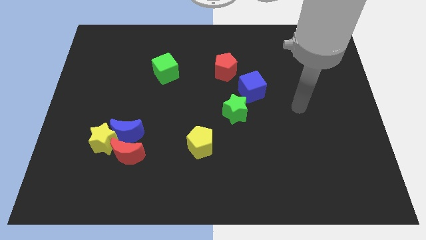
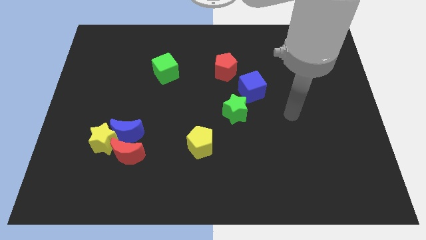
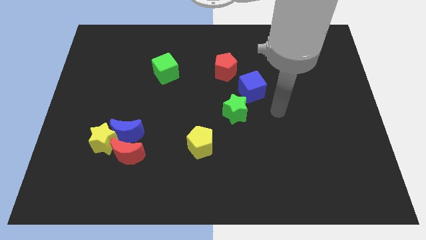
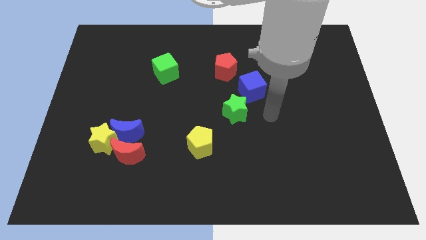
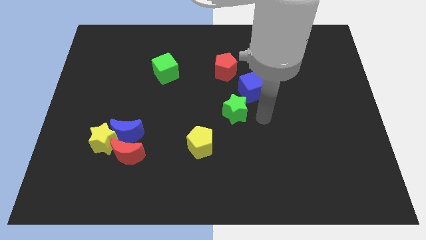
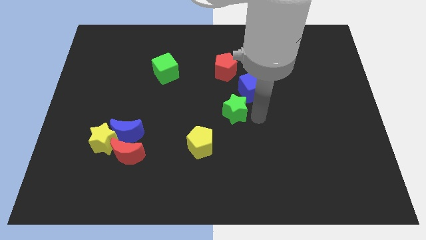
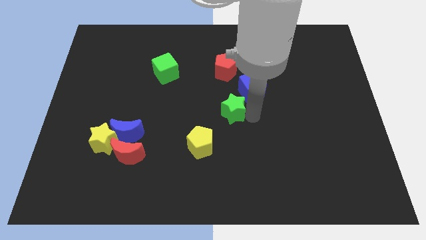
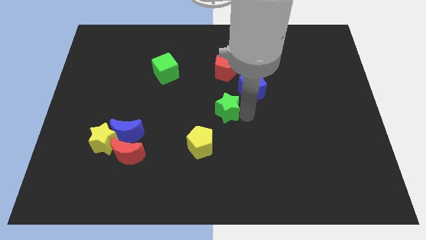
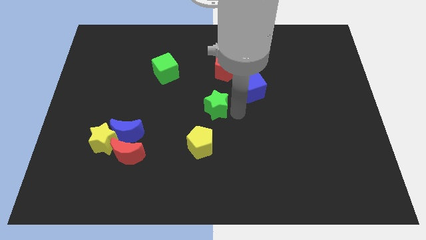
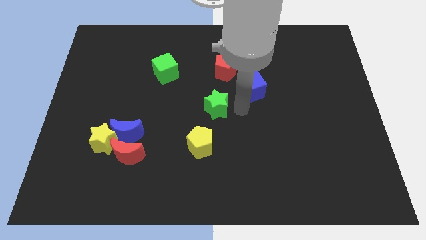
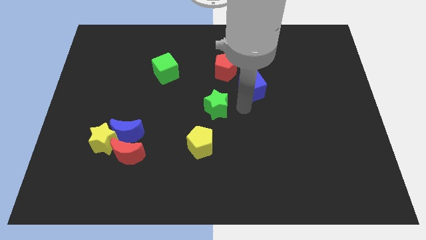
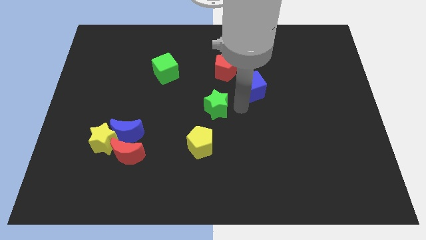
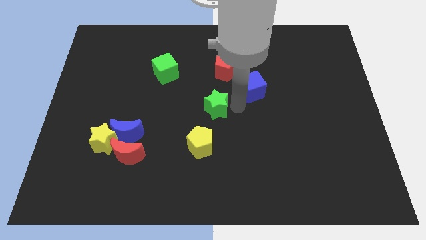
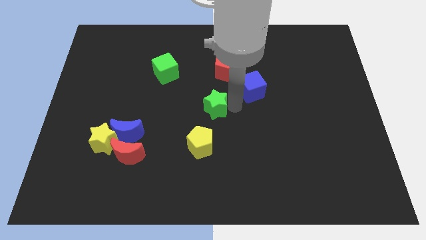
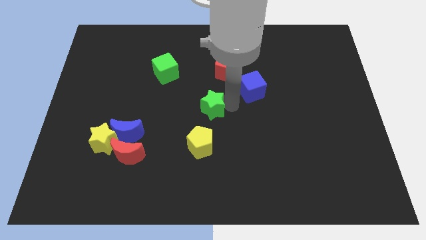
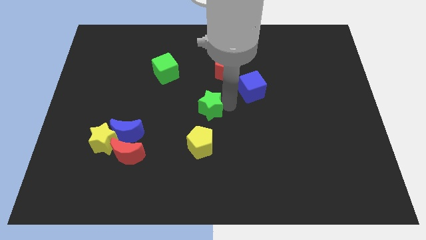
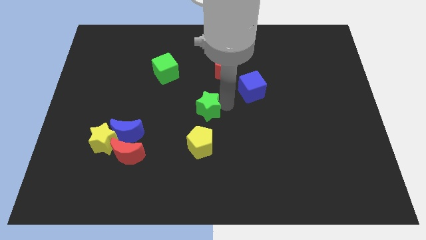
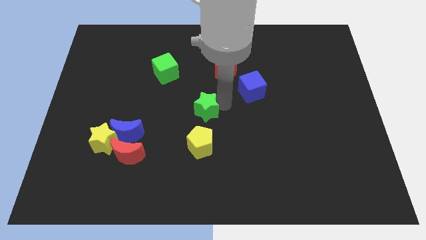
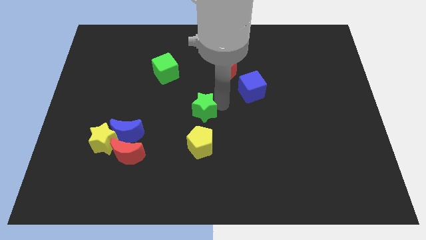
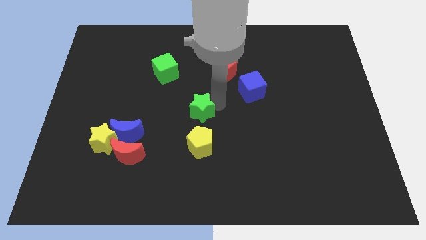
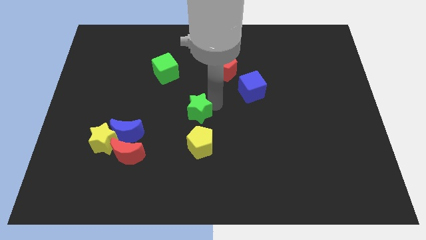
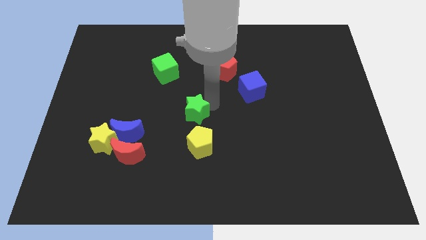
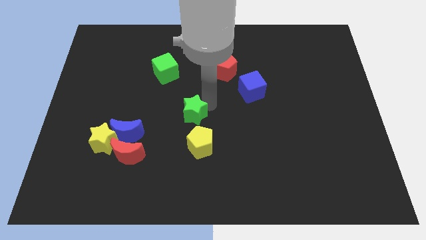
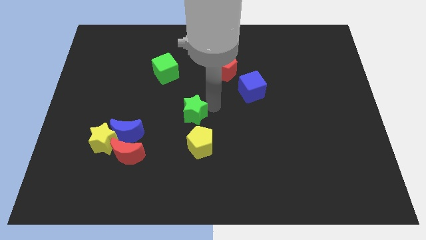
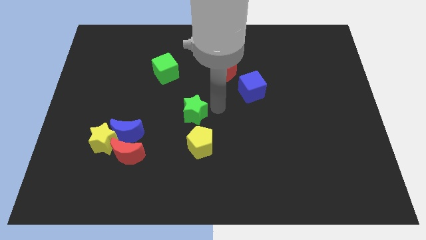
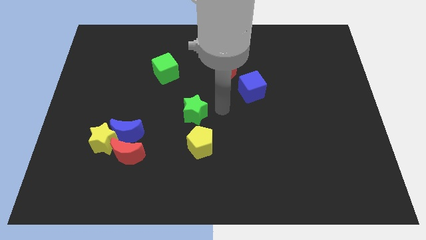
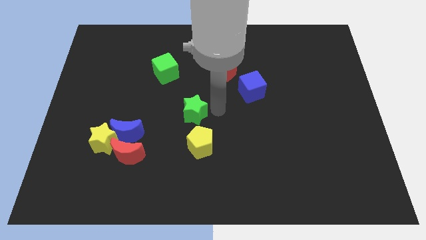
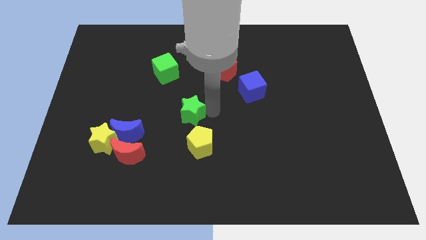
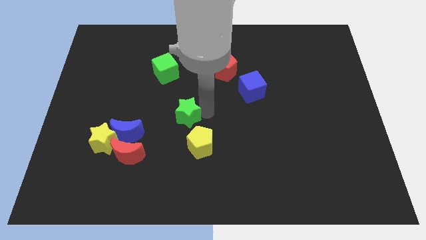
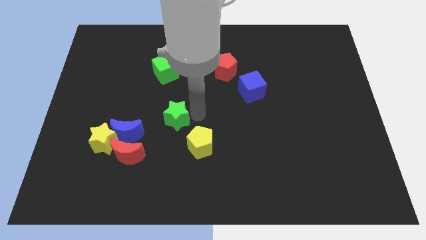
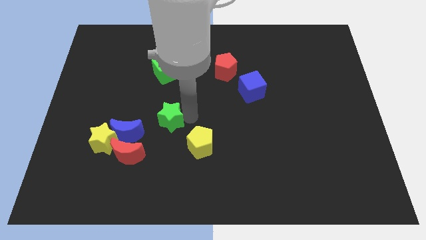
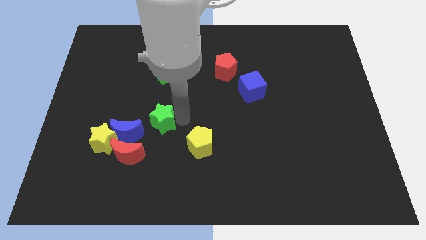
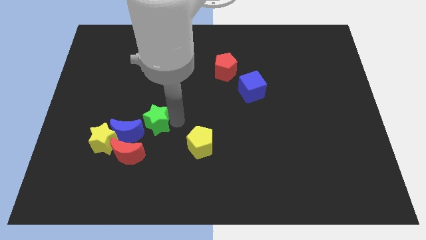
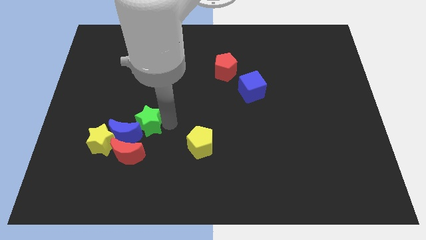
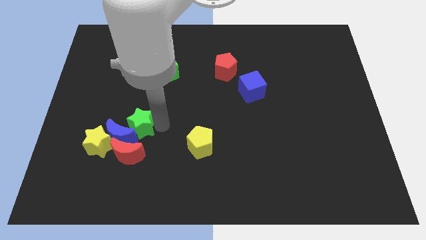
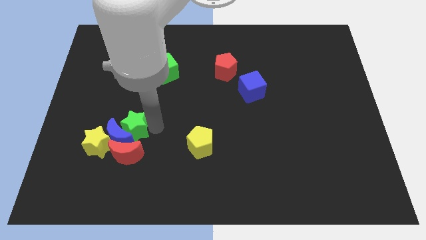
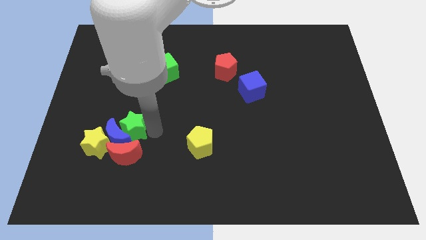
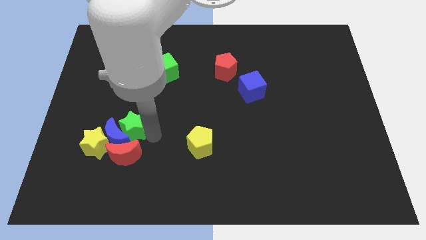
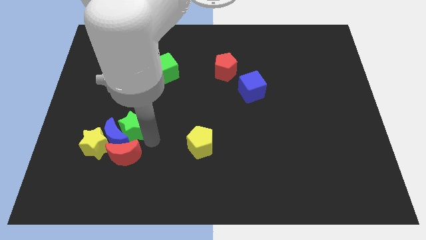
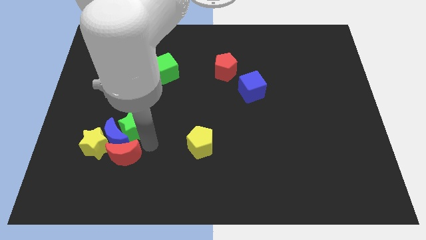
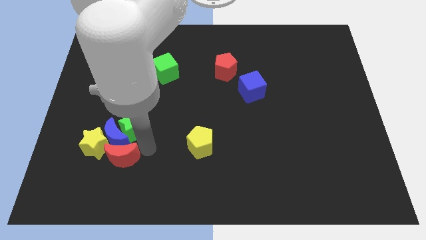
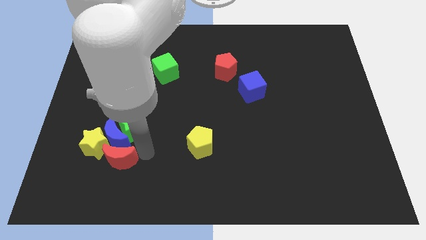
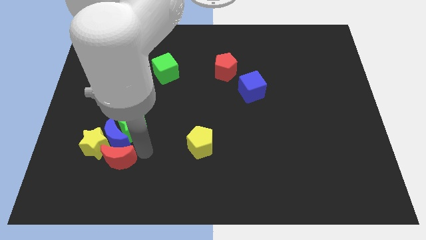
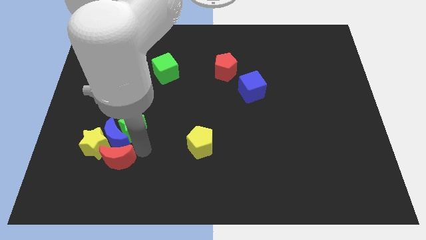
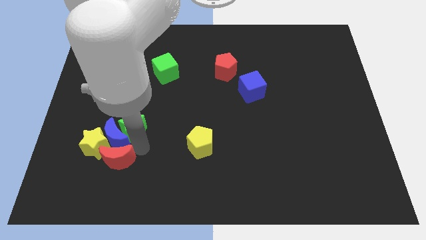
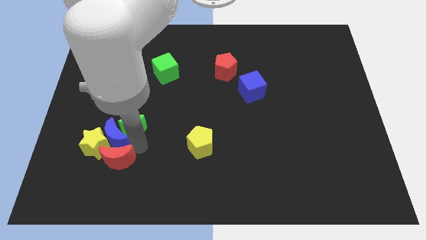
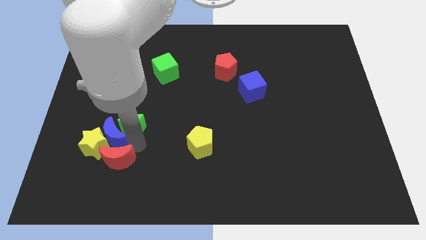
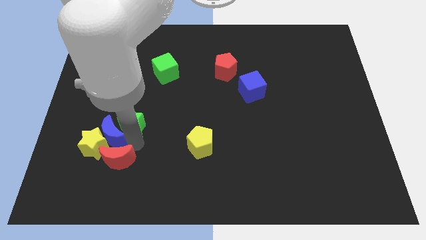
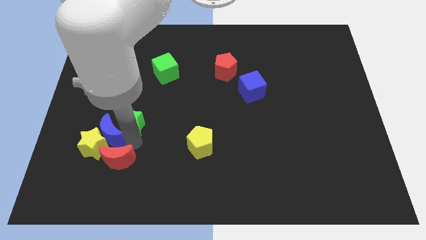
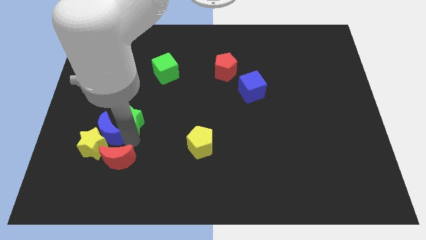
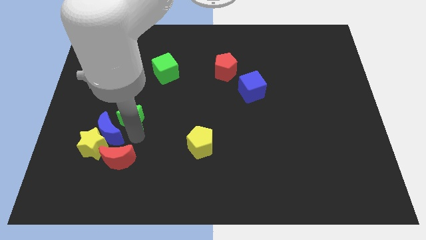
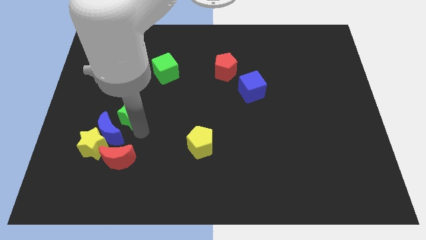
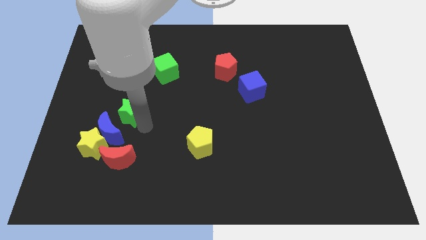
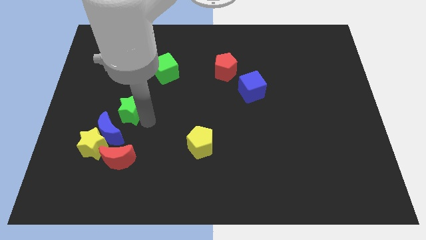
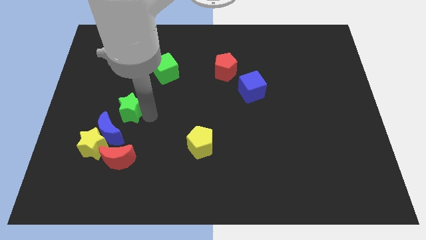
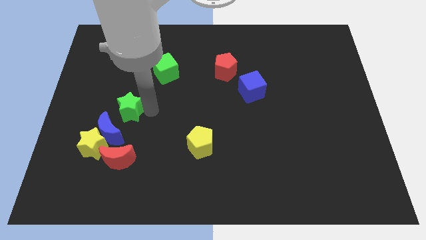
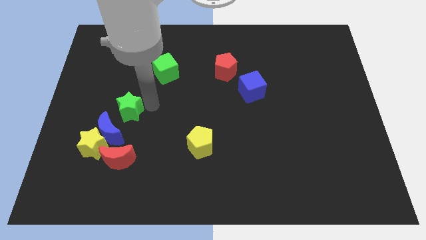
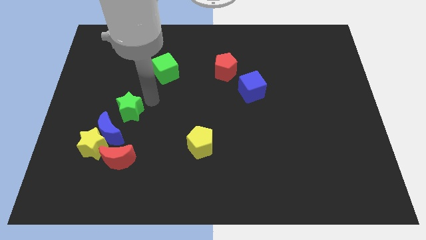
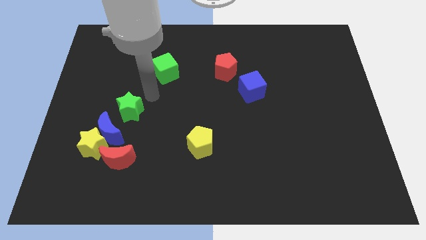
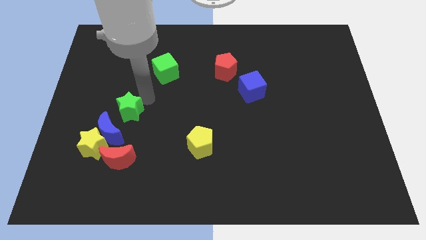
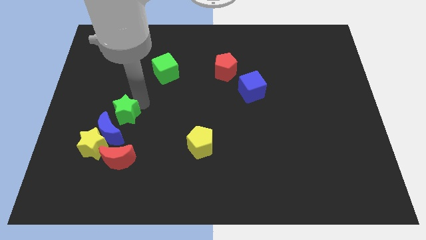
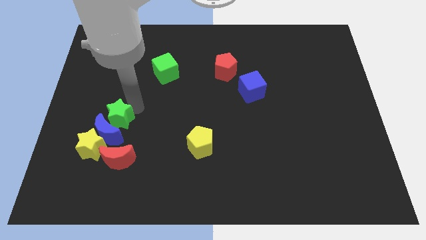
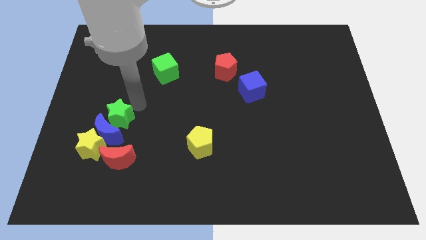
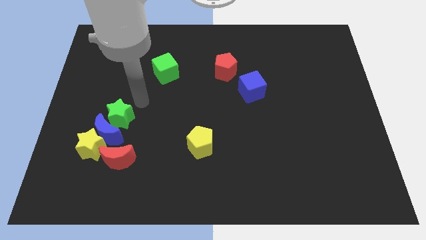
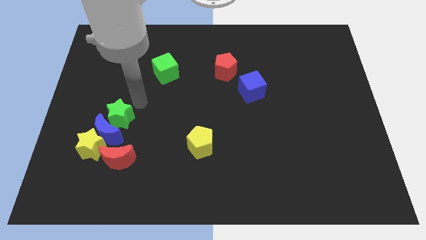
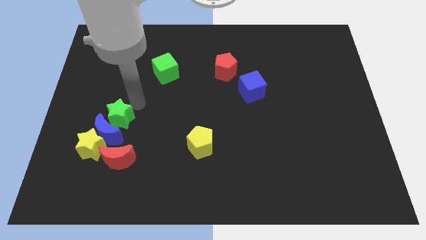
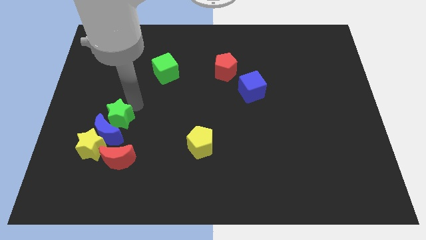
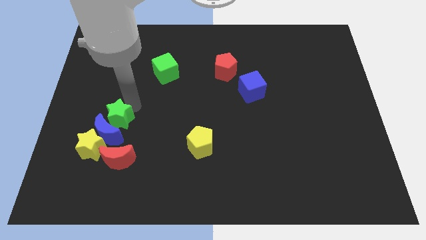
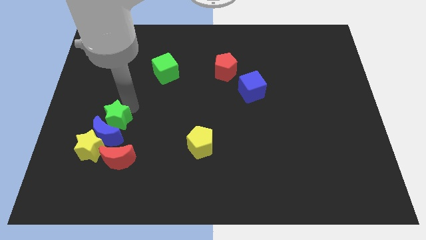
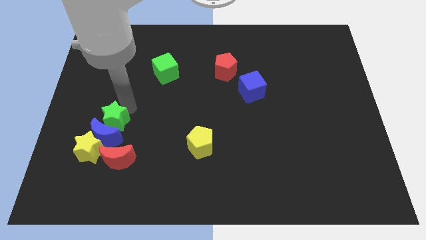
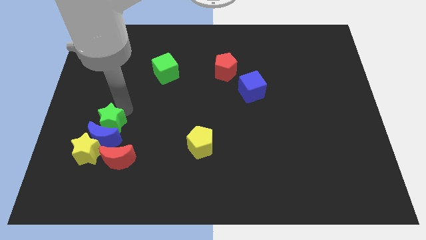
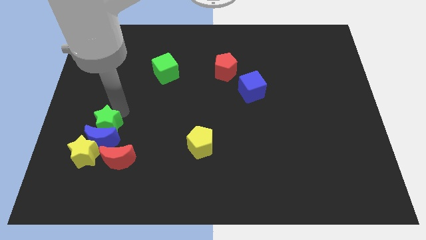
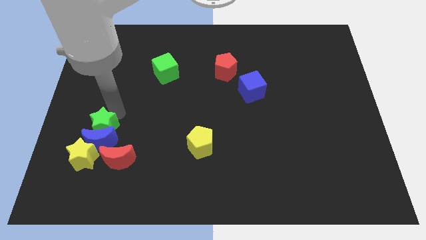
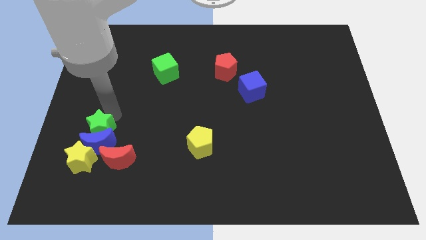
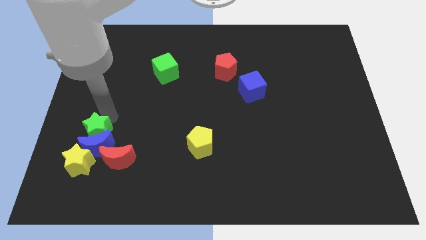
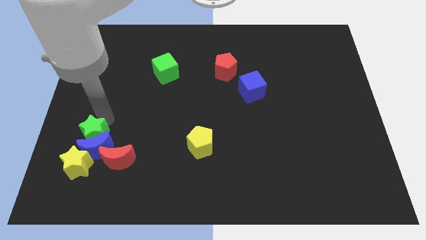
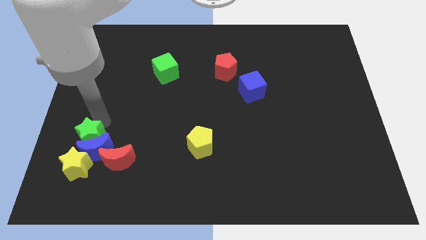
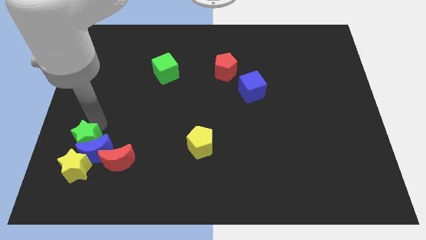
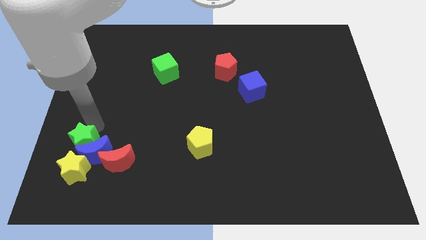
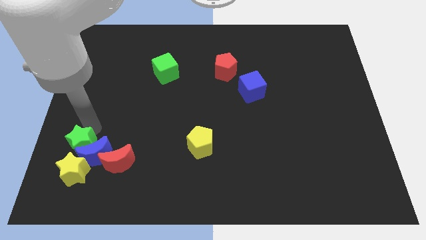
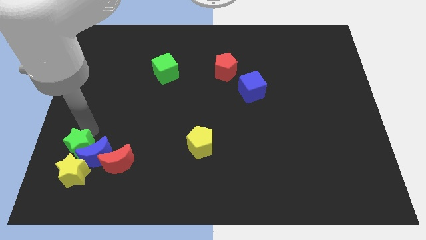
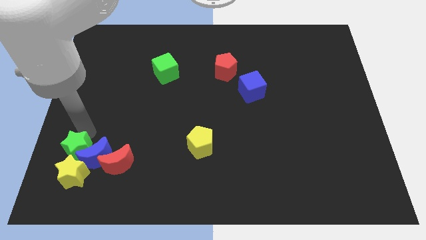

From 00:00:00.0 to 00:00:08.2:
slide the green star next to the yellow star
